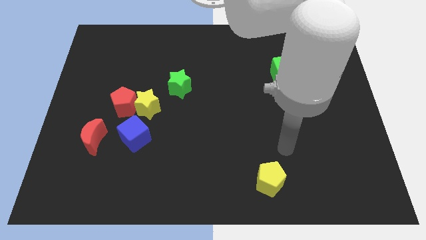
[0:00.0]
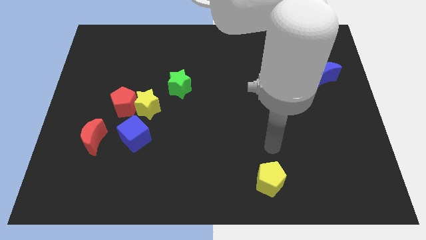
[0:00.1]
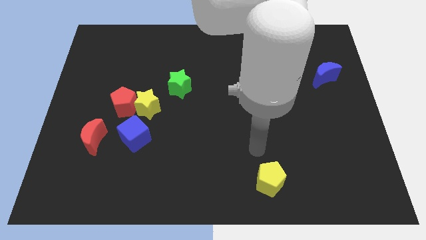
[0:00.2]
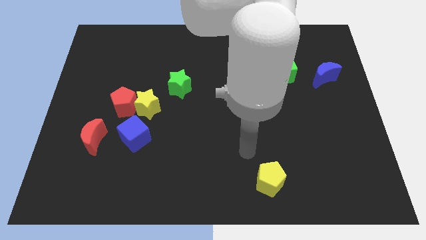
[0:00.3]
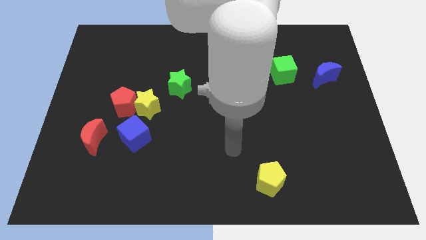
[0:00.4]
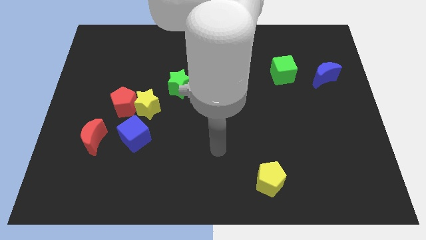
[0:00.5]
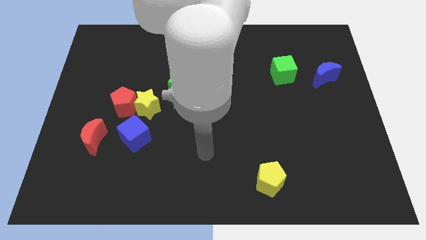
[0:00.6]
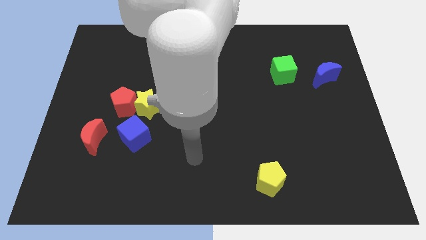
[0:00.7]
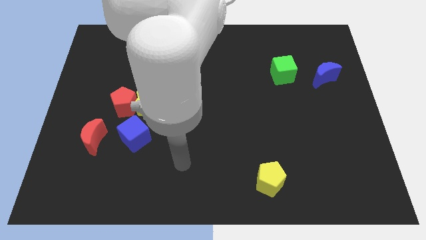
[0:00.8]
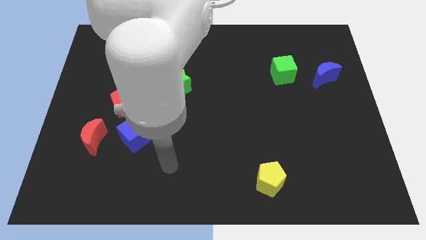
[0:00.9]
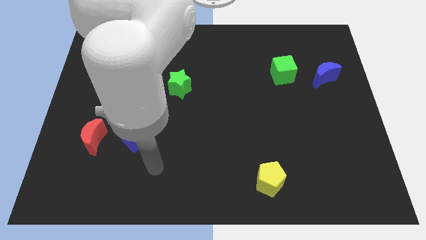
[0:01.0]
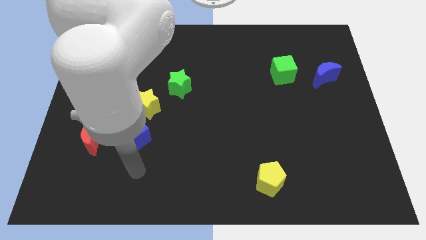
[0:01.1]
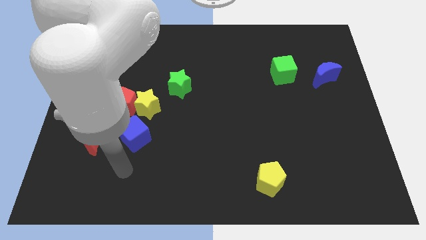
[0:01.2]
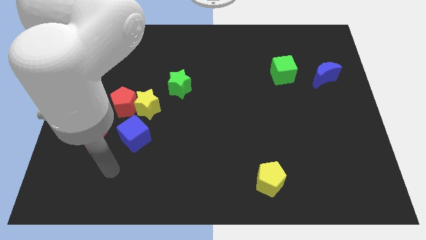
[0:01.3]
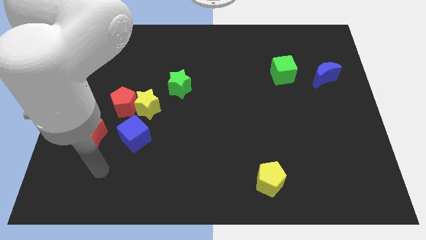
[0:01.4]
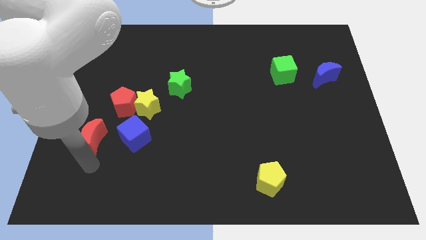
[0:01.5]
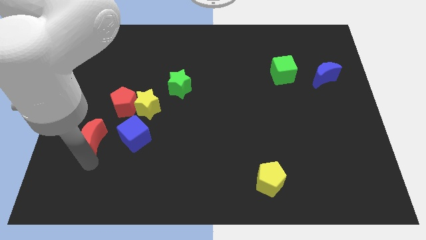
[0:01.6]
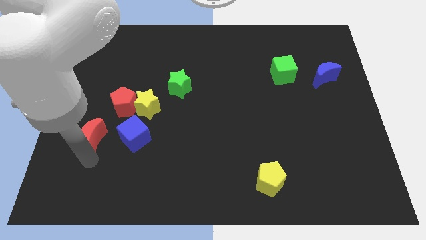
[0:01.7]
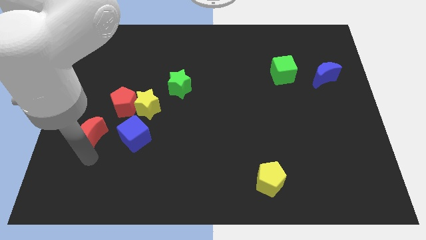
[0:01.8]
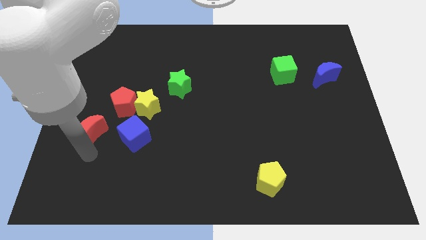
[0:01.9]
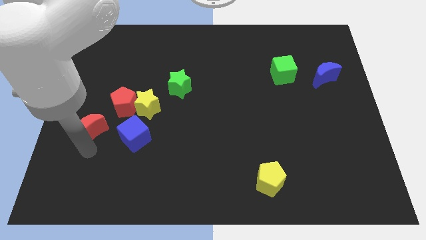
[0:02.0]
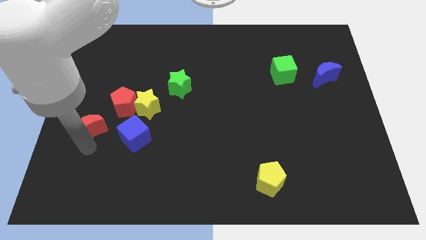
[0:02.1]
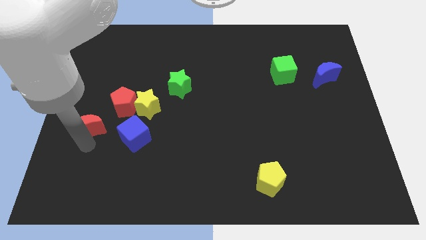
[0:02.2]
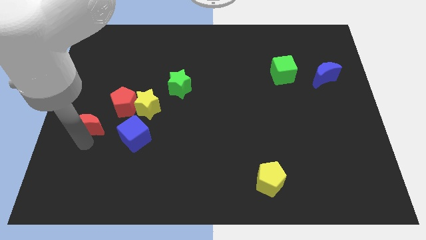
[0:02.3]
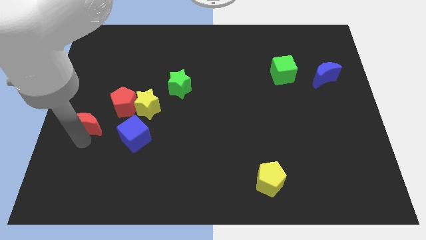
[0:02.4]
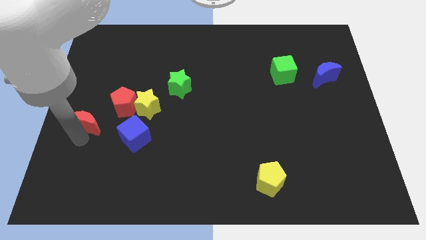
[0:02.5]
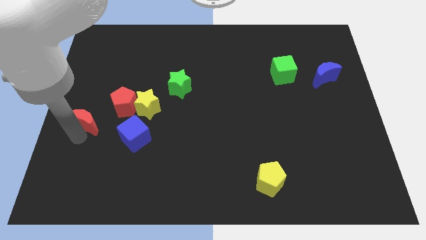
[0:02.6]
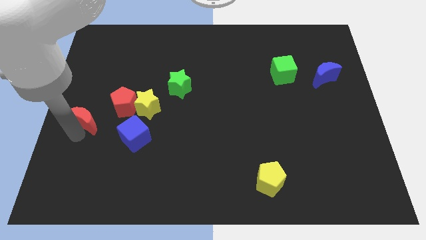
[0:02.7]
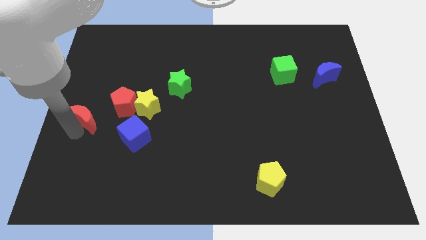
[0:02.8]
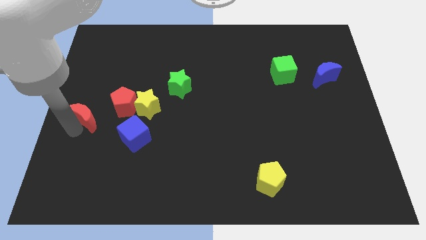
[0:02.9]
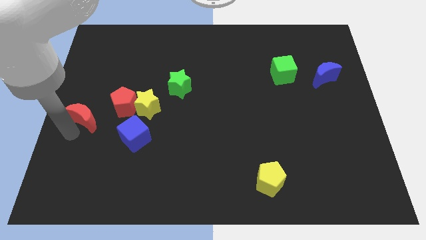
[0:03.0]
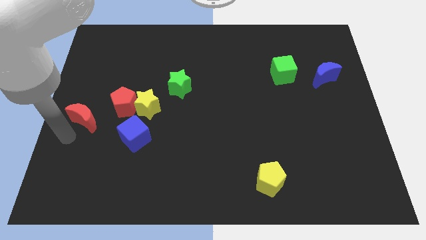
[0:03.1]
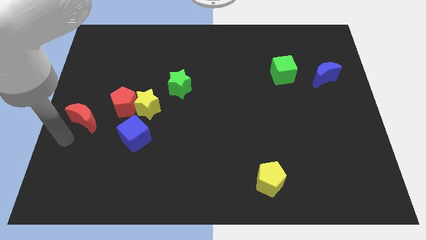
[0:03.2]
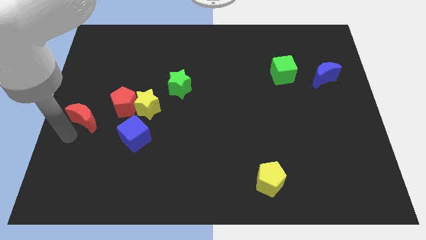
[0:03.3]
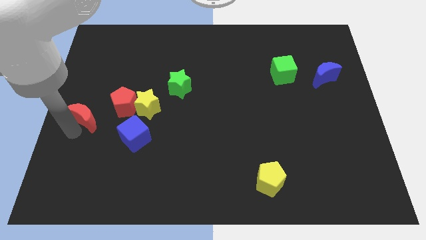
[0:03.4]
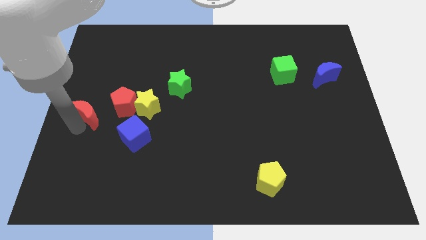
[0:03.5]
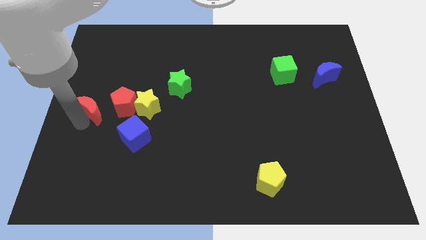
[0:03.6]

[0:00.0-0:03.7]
slide the red moon upwards a bit

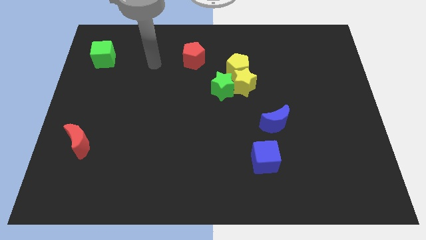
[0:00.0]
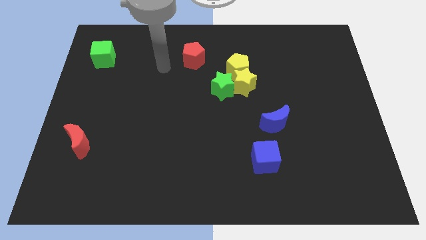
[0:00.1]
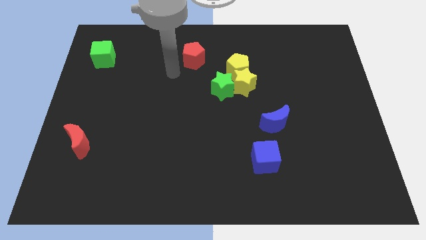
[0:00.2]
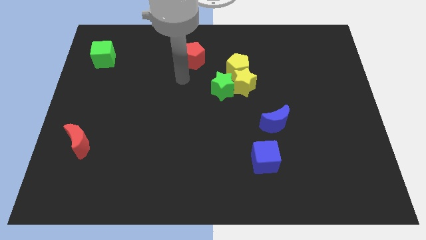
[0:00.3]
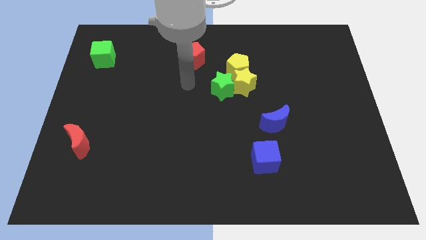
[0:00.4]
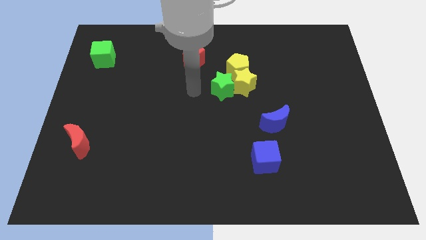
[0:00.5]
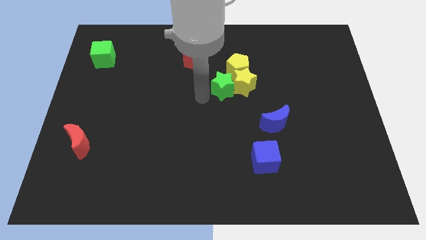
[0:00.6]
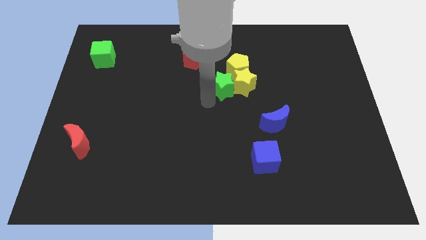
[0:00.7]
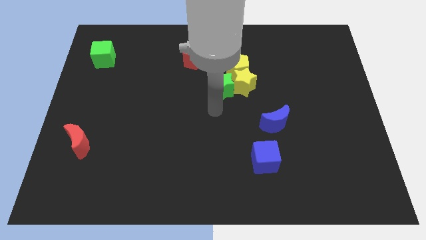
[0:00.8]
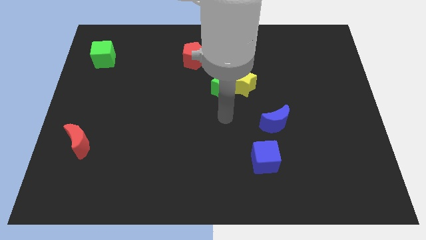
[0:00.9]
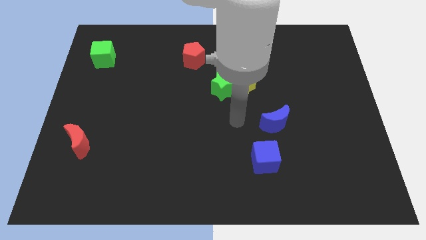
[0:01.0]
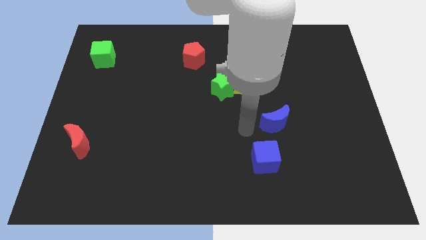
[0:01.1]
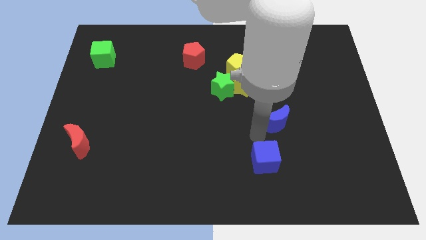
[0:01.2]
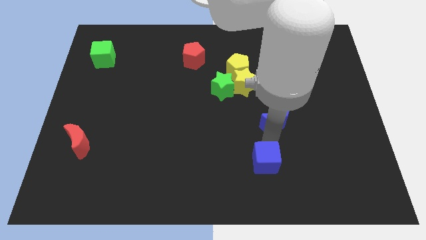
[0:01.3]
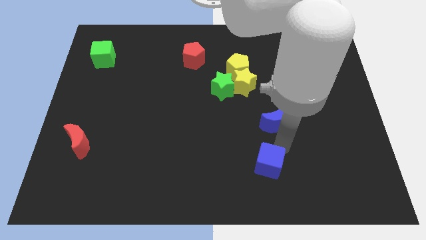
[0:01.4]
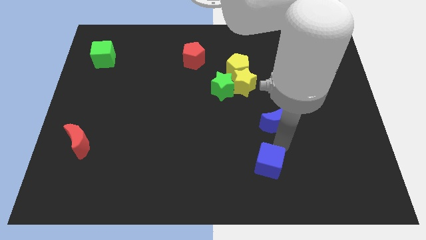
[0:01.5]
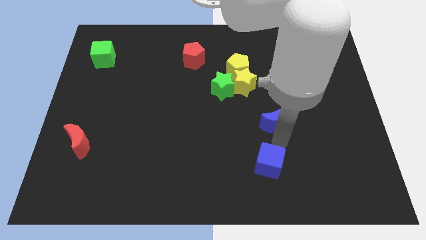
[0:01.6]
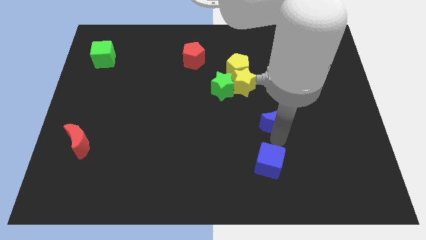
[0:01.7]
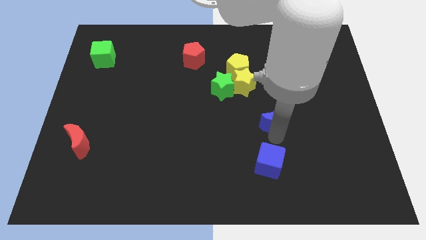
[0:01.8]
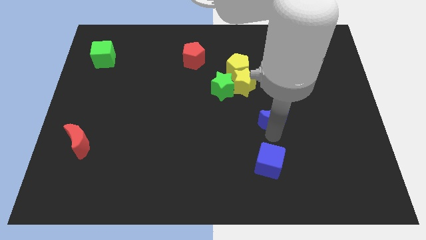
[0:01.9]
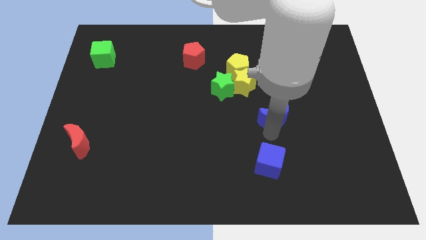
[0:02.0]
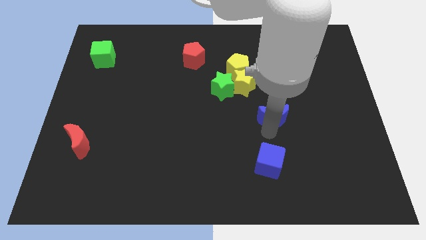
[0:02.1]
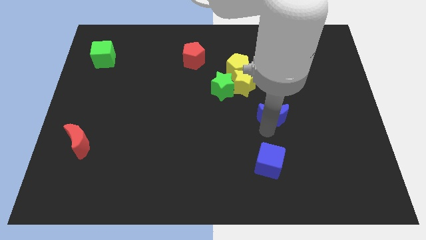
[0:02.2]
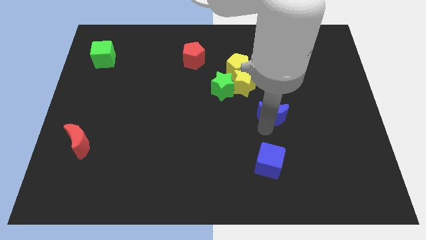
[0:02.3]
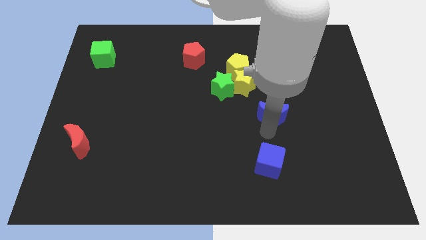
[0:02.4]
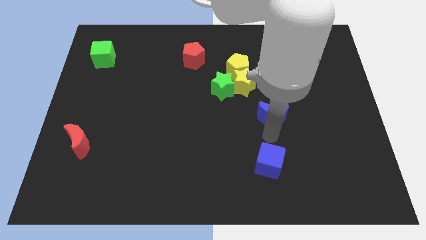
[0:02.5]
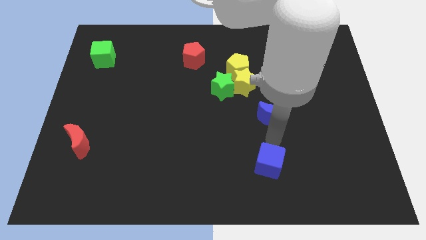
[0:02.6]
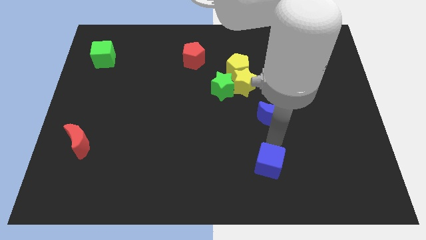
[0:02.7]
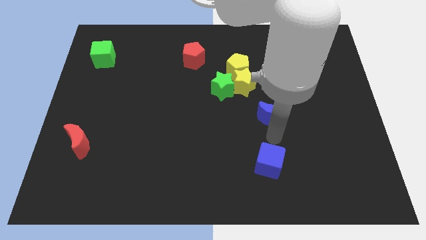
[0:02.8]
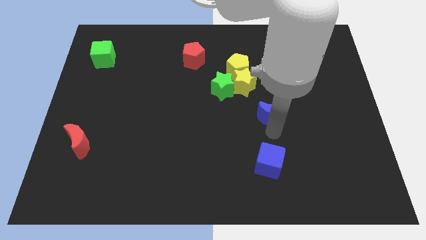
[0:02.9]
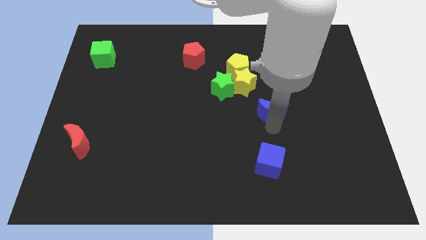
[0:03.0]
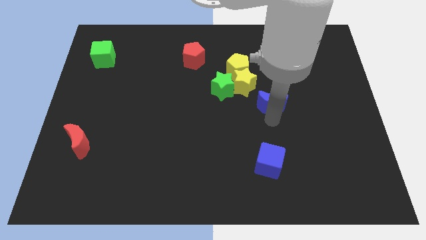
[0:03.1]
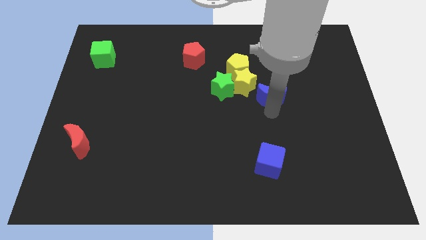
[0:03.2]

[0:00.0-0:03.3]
slightly push the blue moon upwards

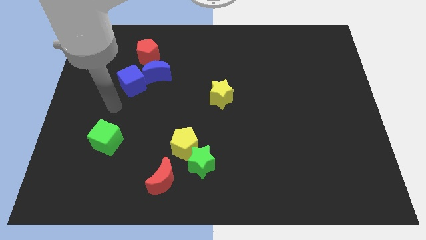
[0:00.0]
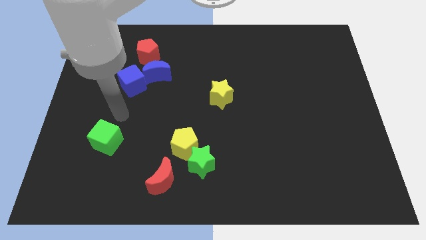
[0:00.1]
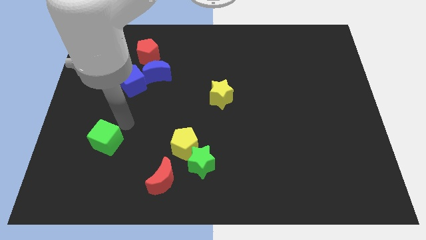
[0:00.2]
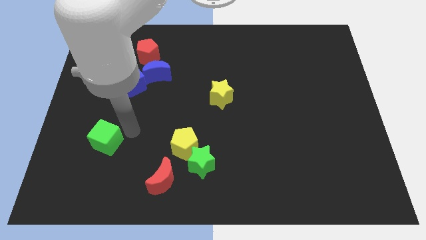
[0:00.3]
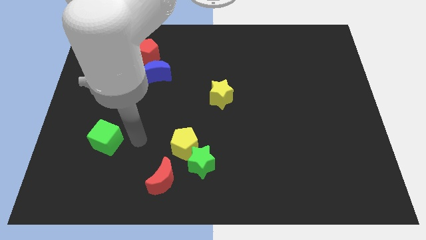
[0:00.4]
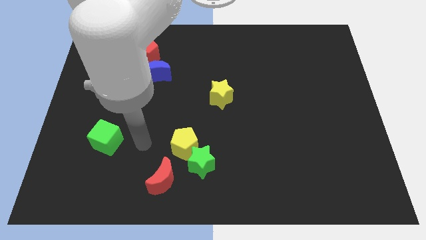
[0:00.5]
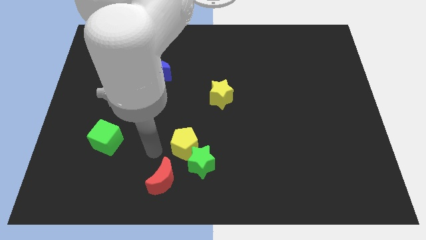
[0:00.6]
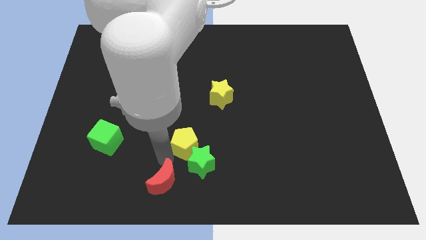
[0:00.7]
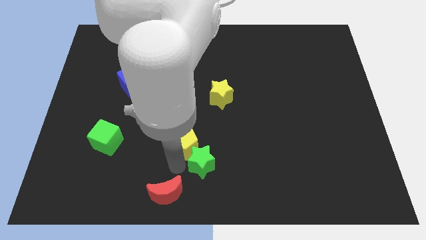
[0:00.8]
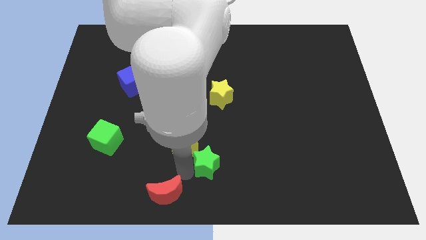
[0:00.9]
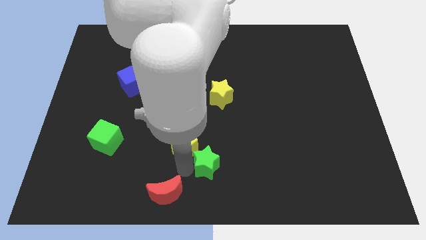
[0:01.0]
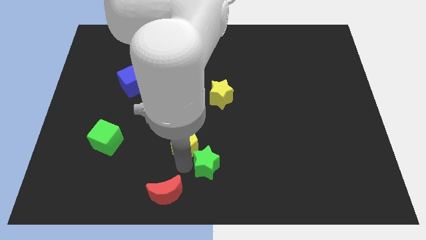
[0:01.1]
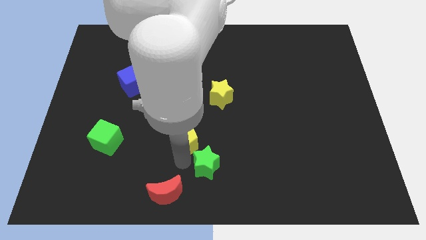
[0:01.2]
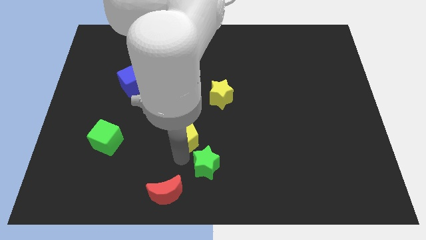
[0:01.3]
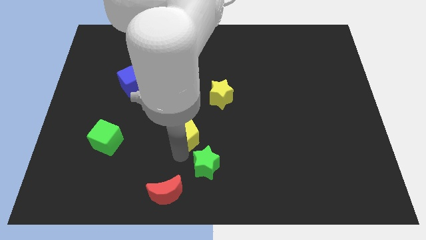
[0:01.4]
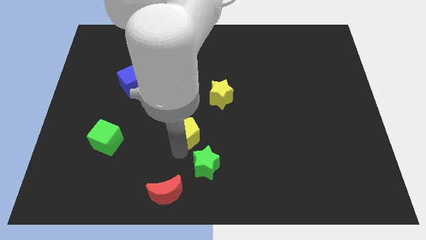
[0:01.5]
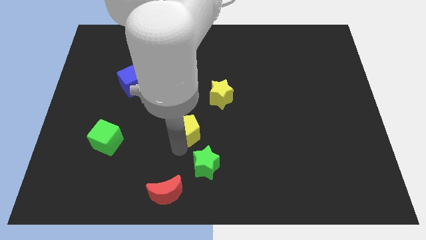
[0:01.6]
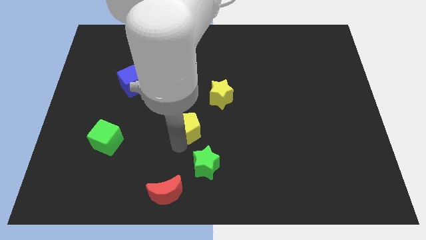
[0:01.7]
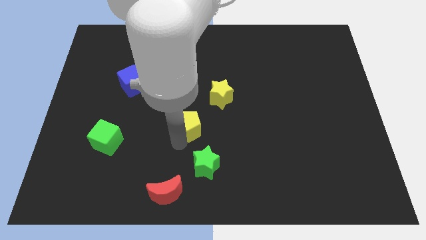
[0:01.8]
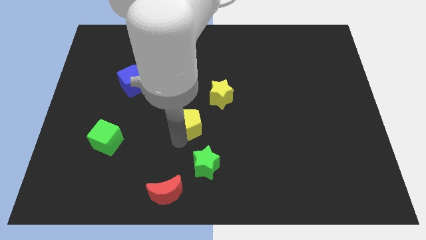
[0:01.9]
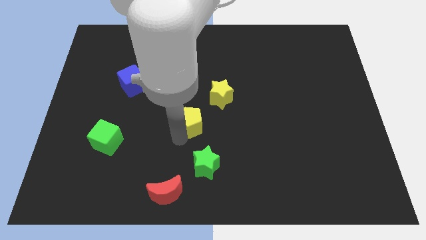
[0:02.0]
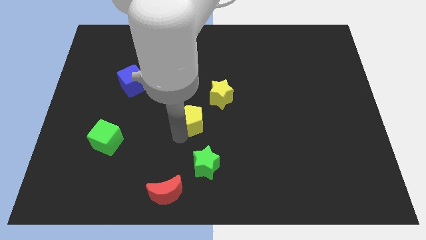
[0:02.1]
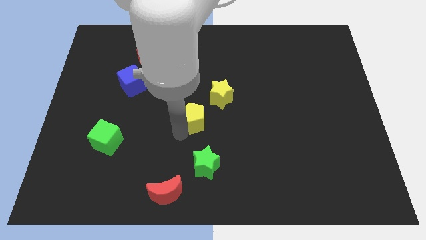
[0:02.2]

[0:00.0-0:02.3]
slightly push the yellow pentagon upwards
